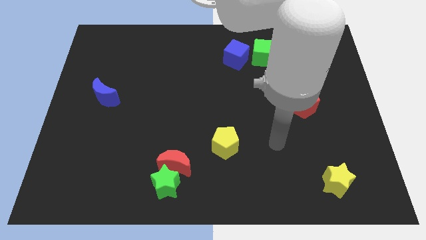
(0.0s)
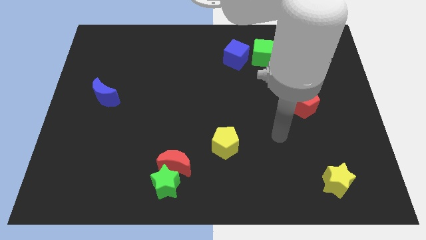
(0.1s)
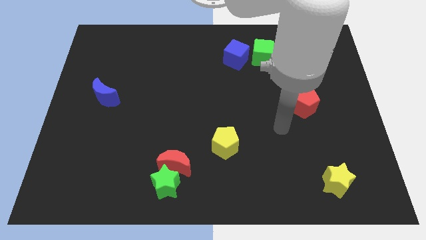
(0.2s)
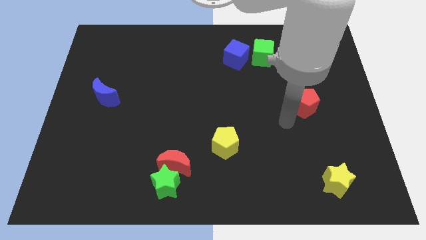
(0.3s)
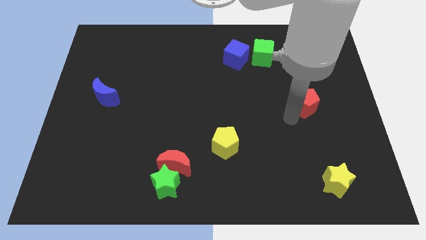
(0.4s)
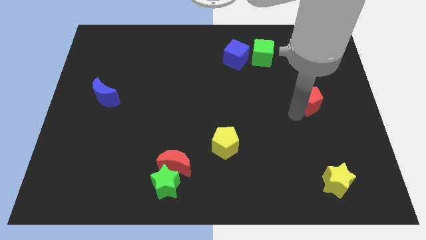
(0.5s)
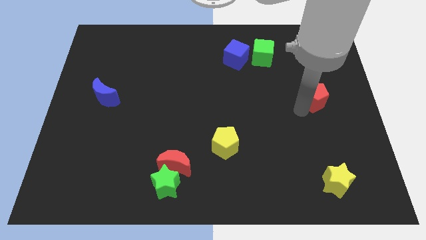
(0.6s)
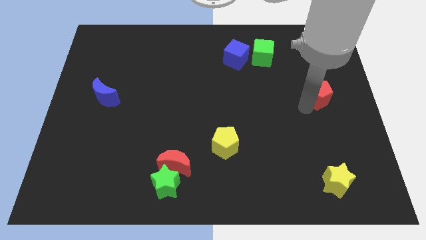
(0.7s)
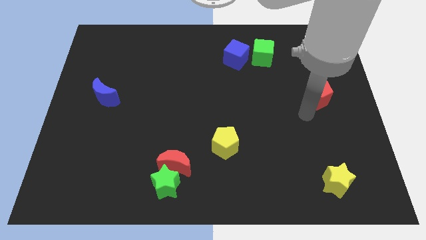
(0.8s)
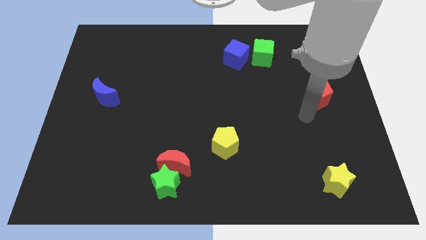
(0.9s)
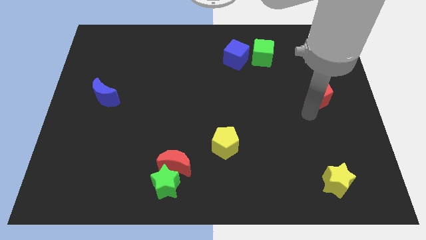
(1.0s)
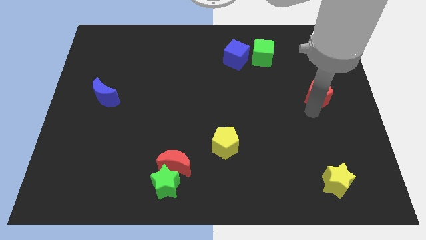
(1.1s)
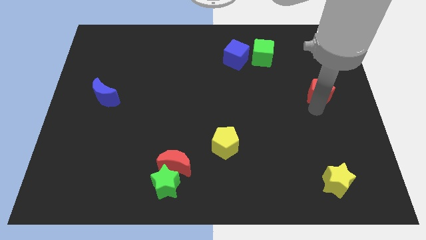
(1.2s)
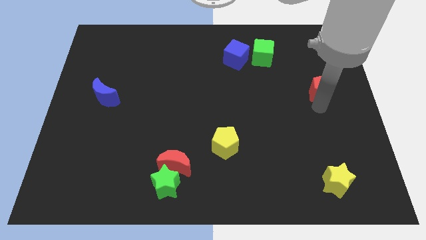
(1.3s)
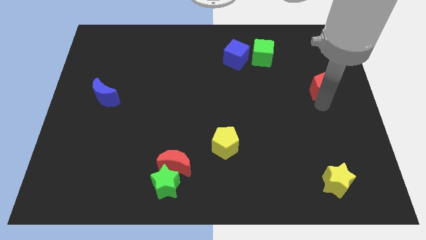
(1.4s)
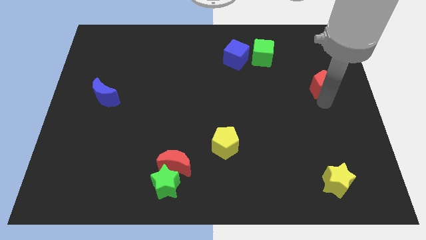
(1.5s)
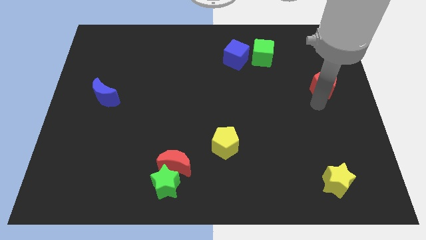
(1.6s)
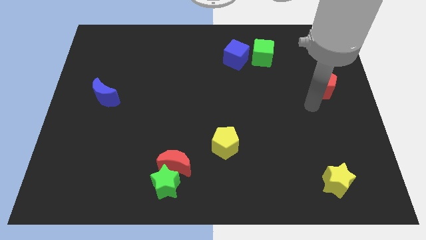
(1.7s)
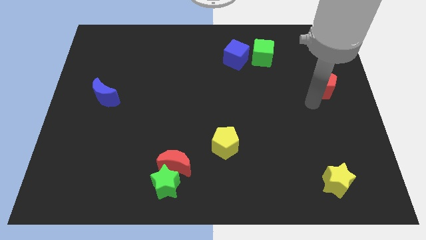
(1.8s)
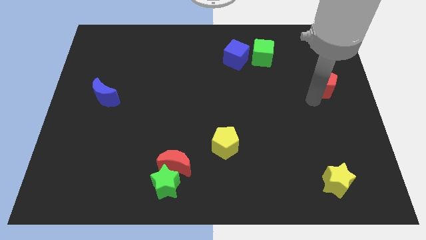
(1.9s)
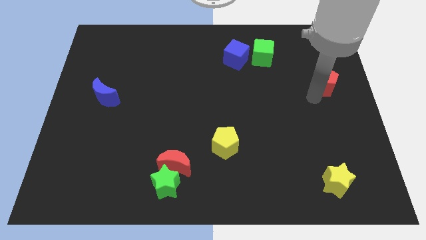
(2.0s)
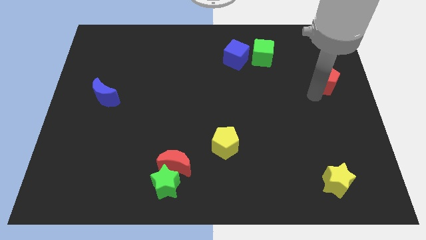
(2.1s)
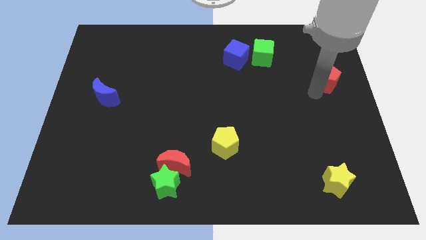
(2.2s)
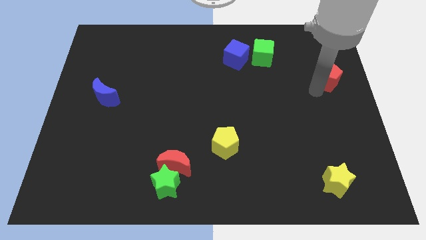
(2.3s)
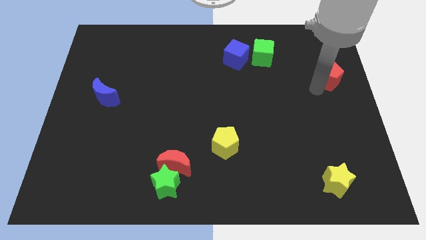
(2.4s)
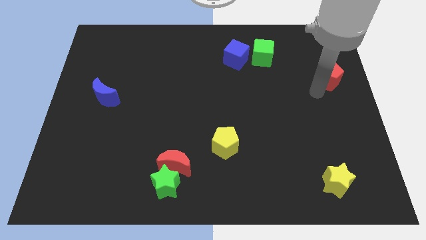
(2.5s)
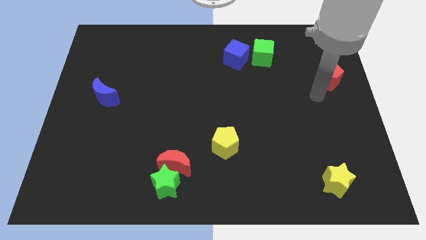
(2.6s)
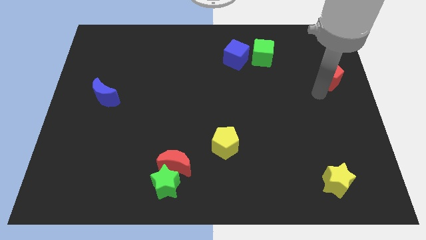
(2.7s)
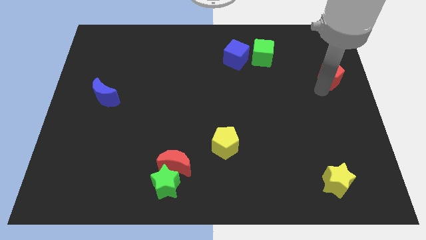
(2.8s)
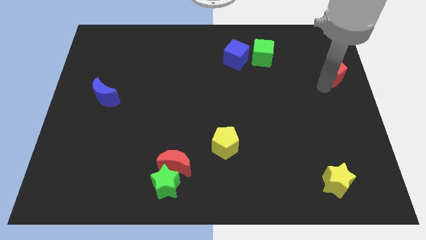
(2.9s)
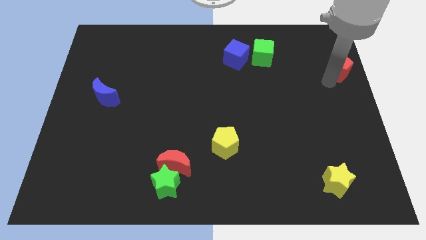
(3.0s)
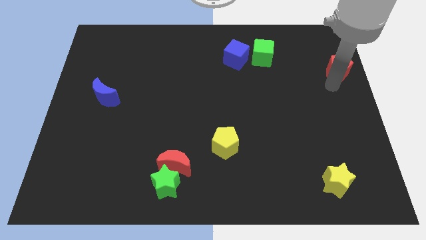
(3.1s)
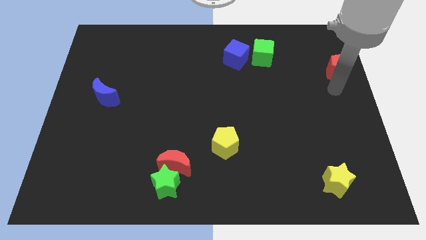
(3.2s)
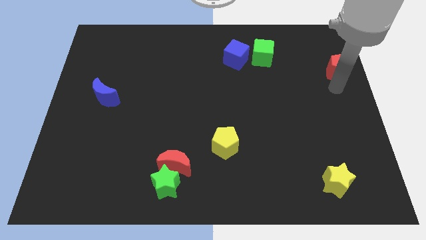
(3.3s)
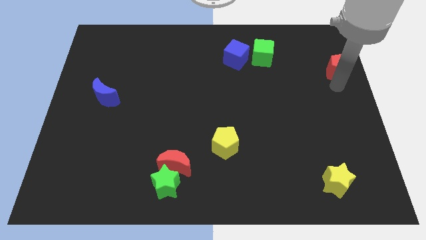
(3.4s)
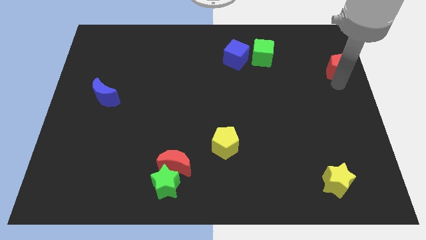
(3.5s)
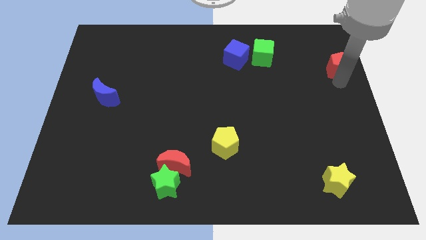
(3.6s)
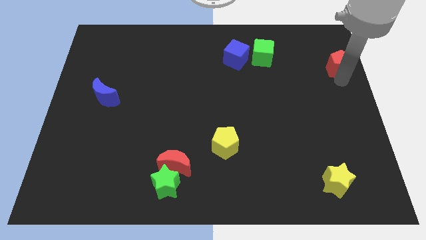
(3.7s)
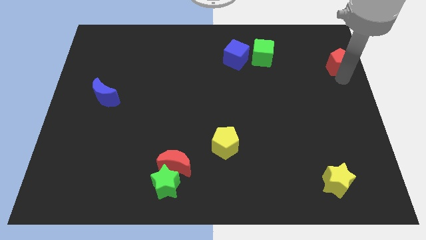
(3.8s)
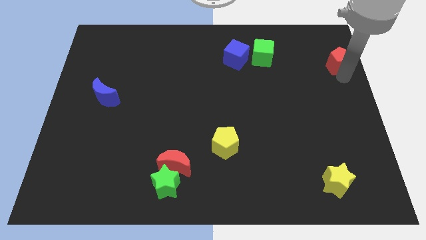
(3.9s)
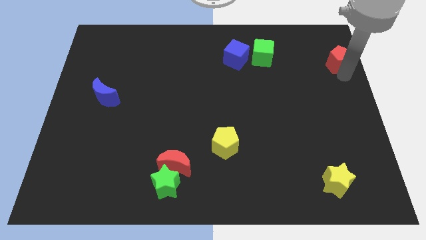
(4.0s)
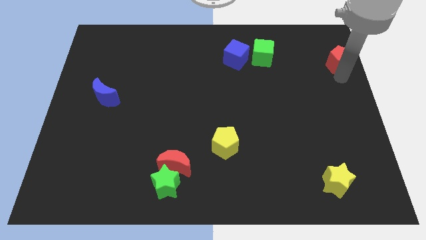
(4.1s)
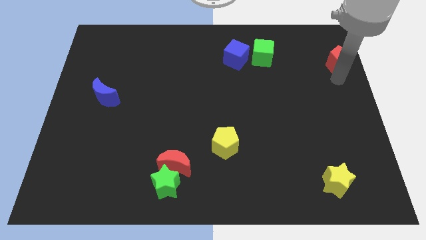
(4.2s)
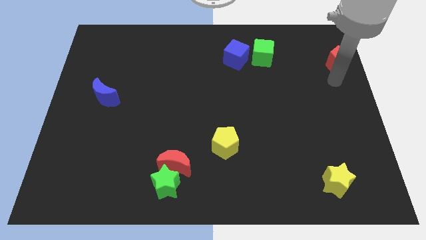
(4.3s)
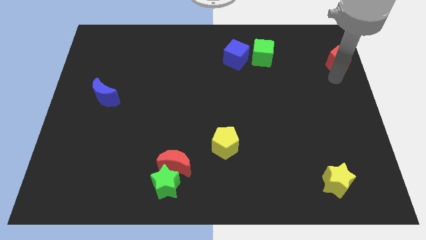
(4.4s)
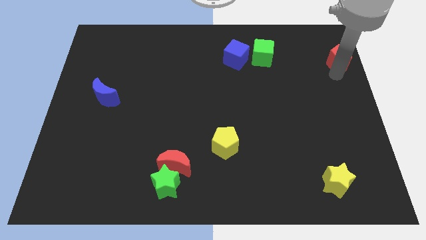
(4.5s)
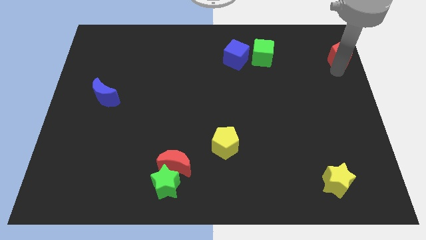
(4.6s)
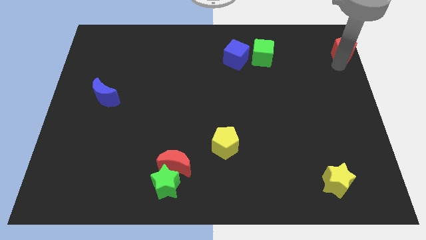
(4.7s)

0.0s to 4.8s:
put the red pentagon to the top right

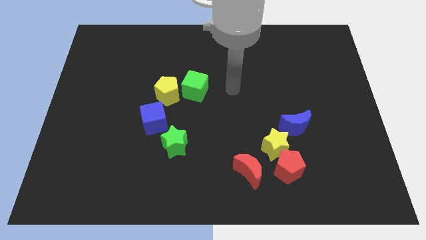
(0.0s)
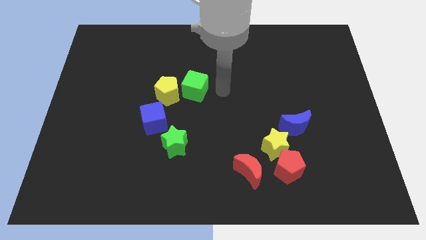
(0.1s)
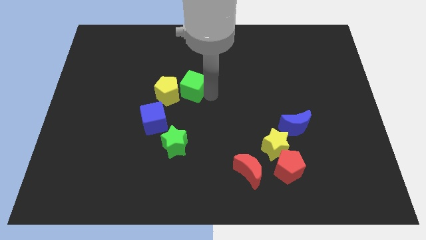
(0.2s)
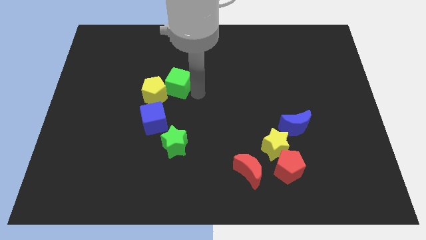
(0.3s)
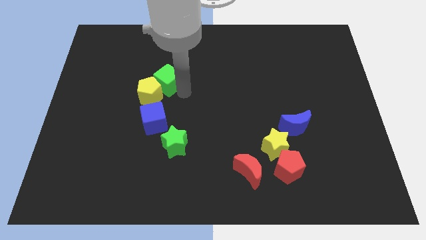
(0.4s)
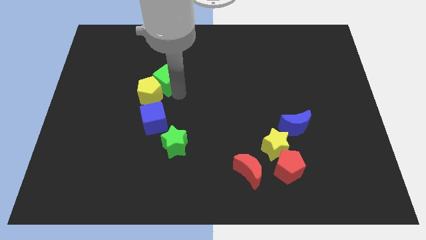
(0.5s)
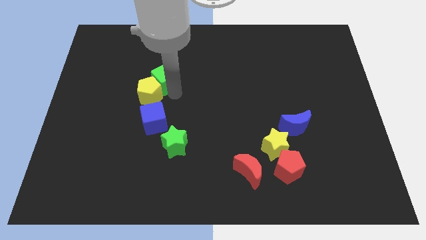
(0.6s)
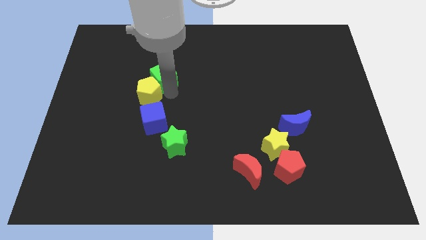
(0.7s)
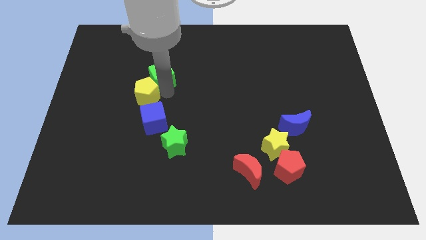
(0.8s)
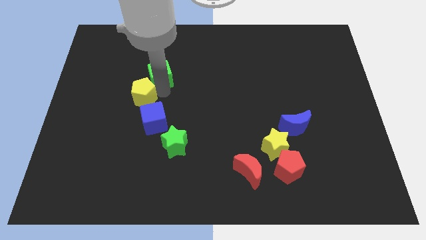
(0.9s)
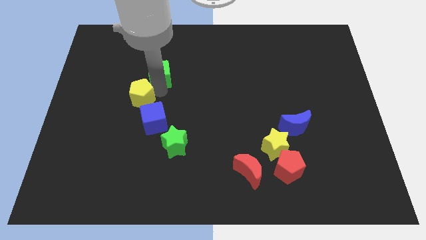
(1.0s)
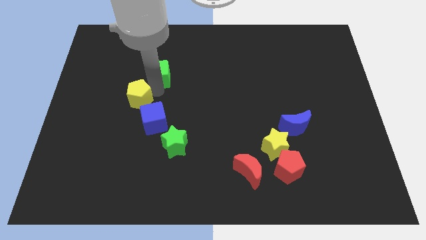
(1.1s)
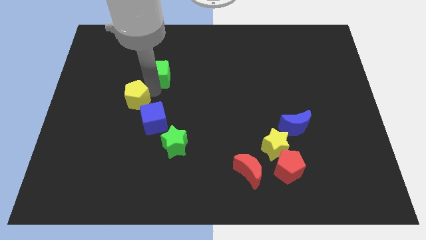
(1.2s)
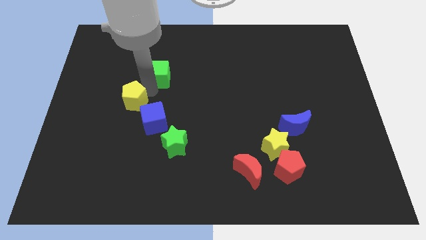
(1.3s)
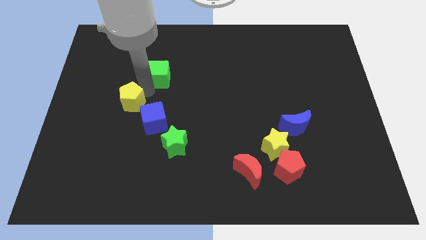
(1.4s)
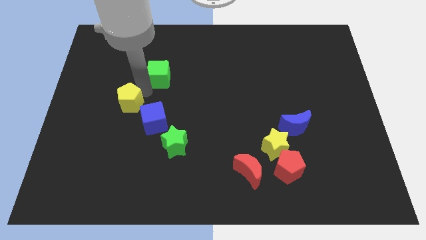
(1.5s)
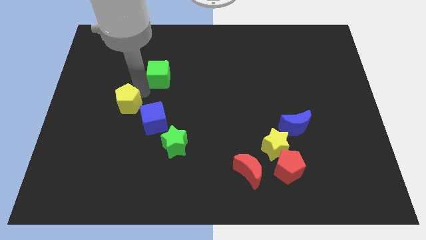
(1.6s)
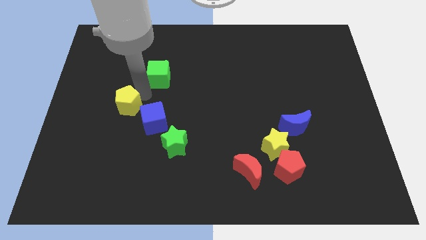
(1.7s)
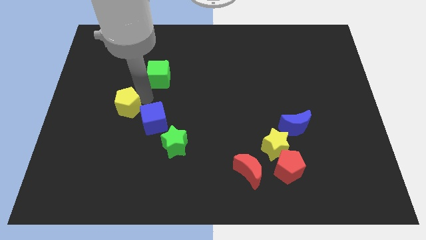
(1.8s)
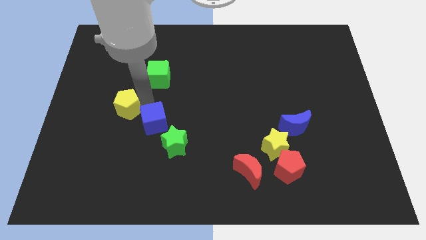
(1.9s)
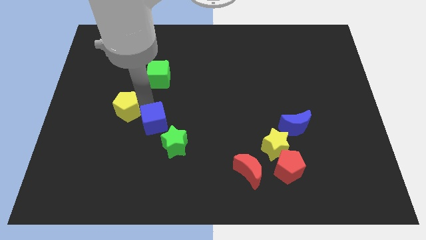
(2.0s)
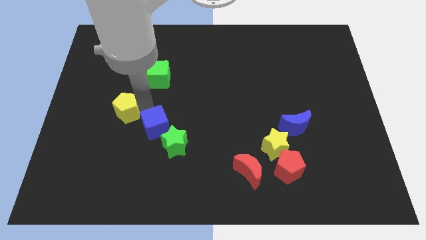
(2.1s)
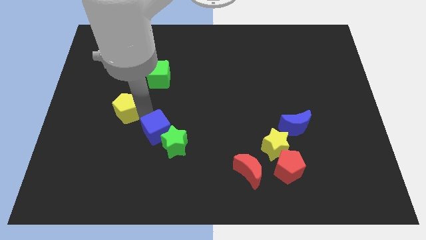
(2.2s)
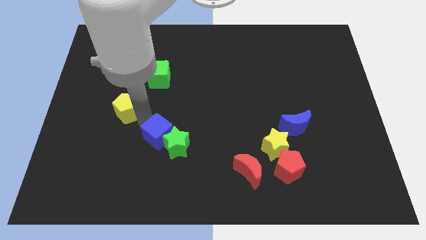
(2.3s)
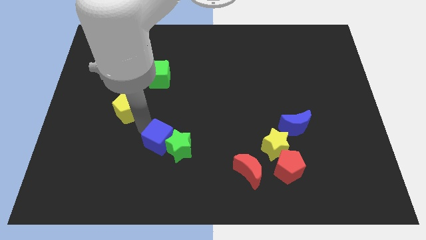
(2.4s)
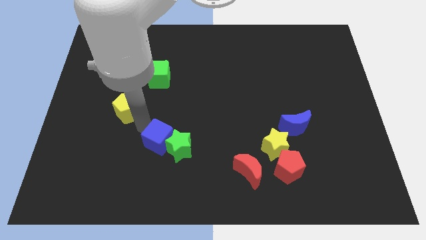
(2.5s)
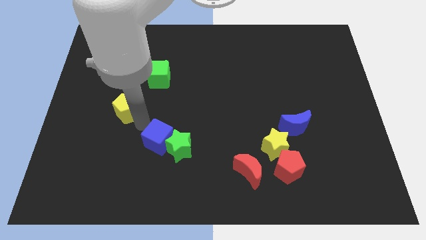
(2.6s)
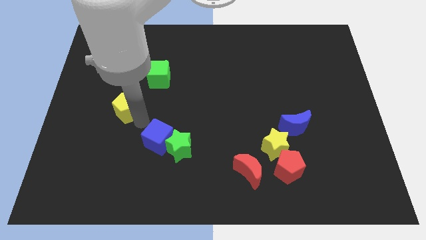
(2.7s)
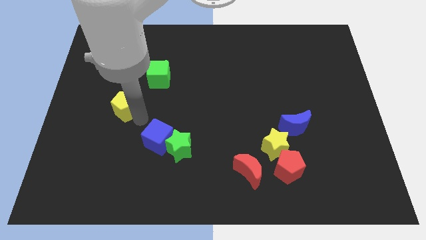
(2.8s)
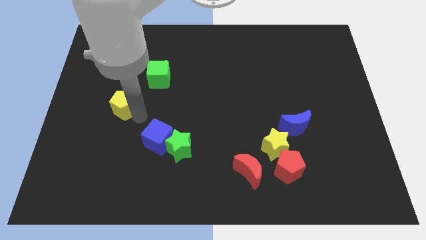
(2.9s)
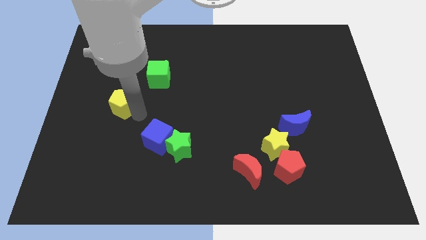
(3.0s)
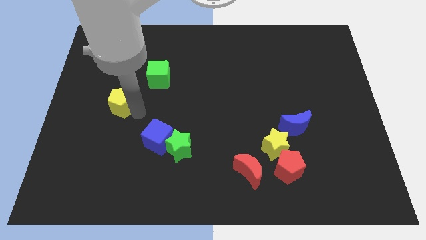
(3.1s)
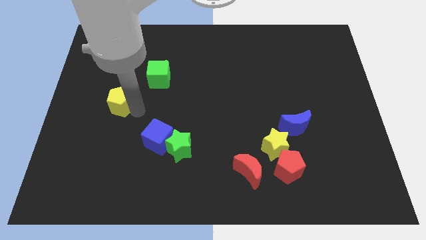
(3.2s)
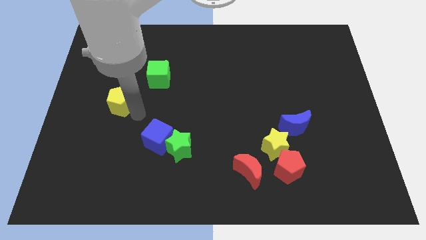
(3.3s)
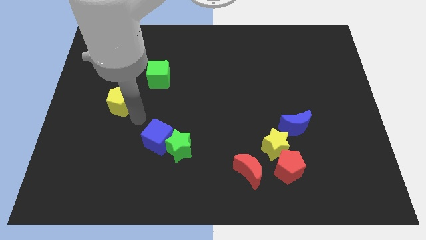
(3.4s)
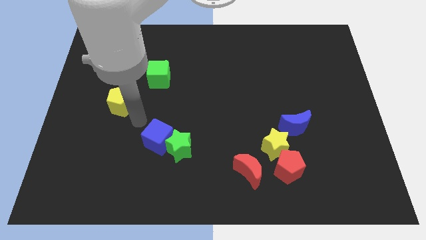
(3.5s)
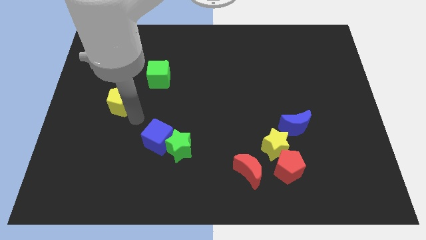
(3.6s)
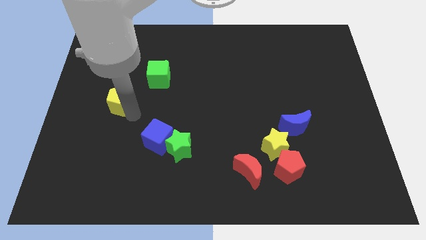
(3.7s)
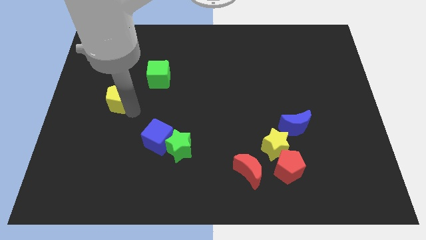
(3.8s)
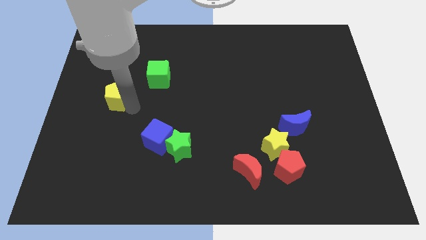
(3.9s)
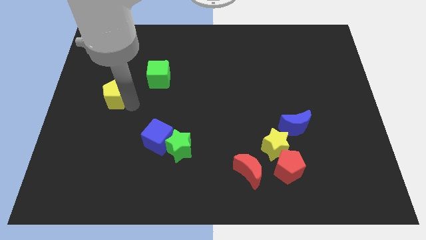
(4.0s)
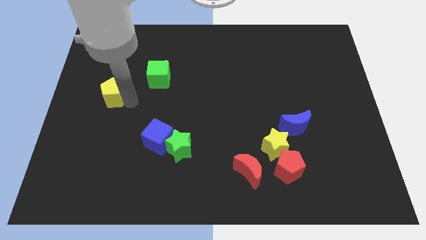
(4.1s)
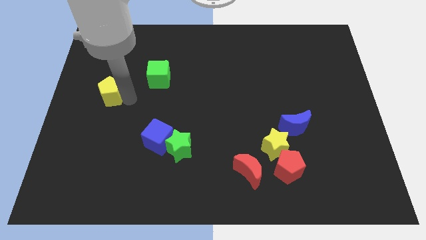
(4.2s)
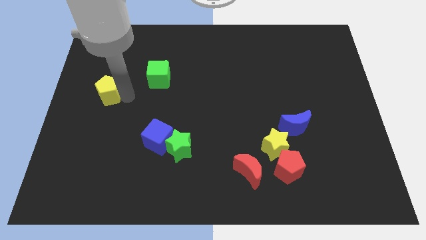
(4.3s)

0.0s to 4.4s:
move the yellow pentagon to the center left
